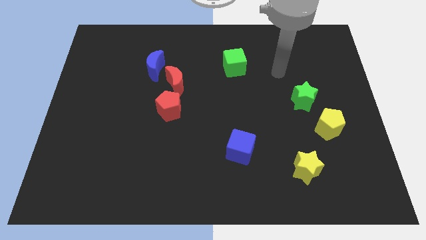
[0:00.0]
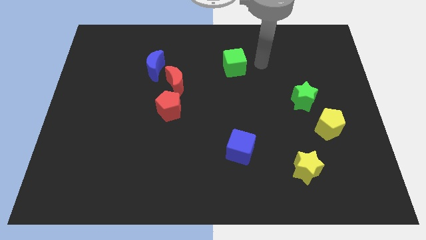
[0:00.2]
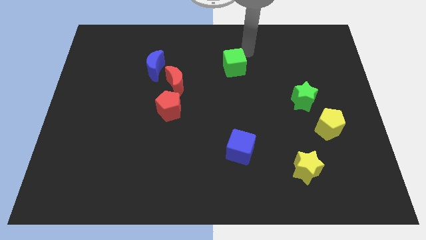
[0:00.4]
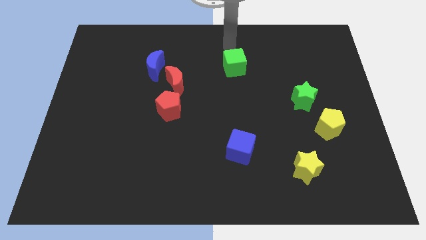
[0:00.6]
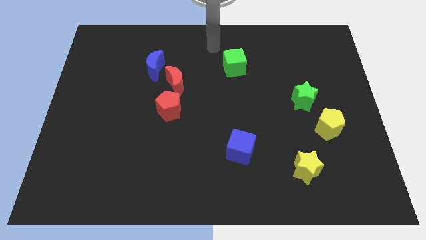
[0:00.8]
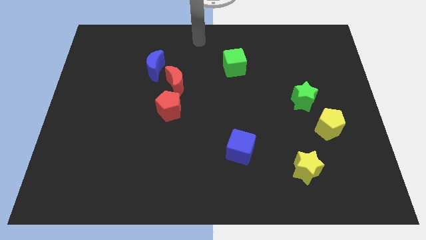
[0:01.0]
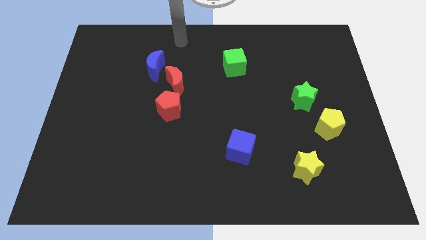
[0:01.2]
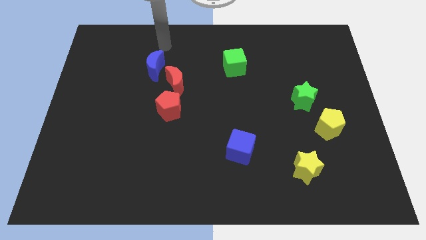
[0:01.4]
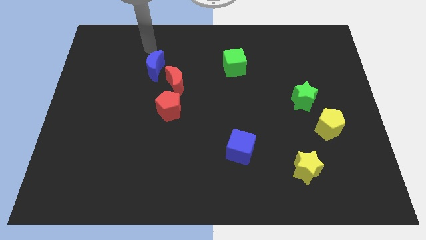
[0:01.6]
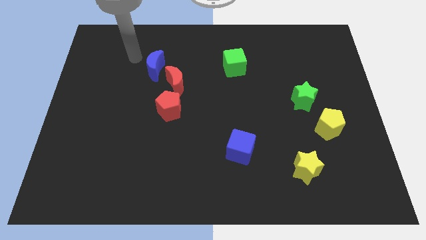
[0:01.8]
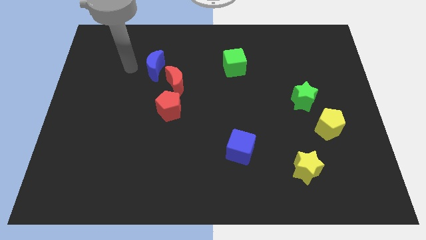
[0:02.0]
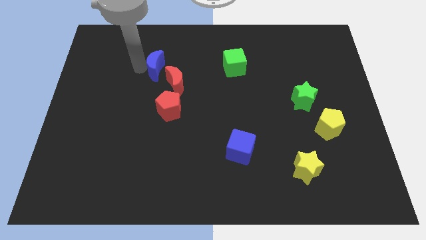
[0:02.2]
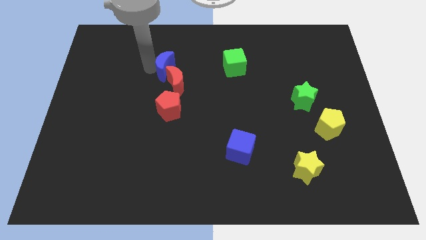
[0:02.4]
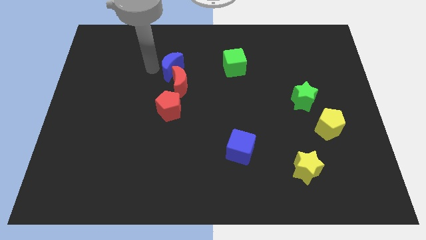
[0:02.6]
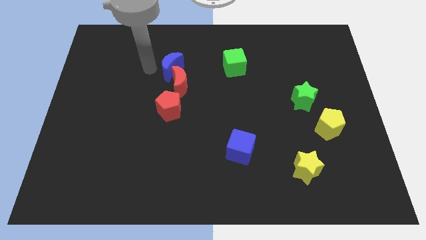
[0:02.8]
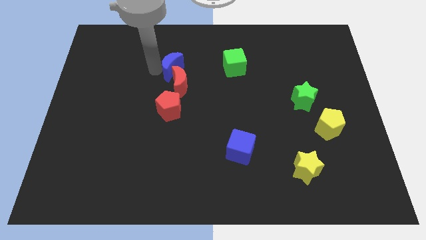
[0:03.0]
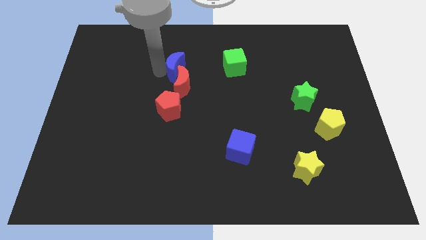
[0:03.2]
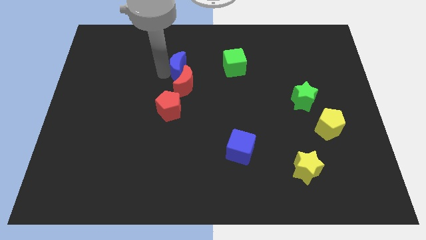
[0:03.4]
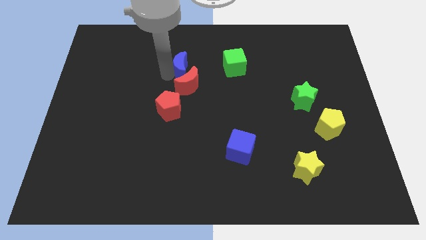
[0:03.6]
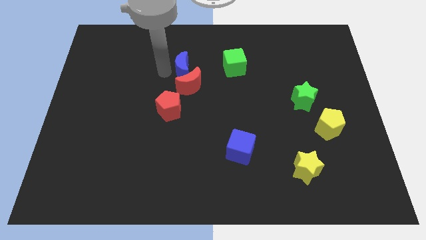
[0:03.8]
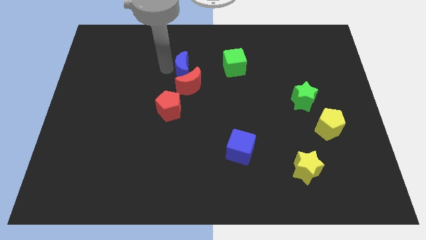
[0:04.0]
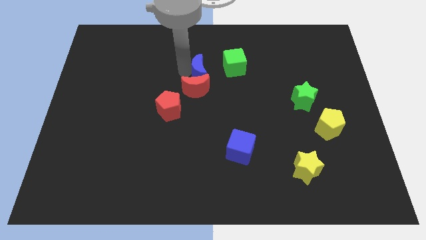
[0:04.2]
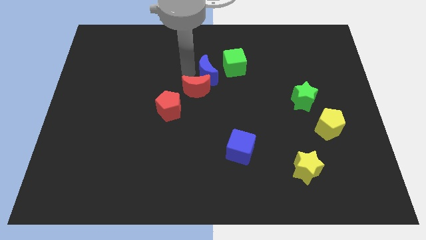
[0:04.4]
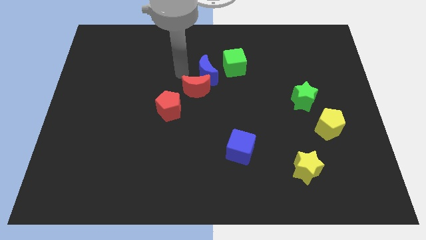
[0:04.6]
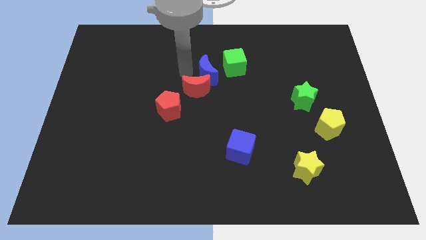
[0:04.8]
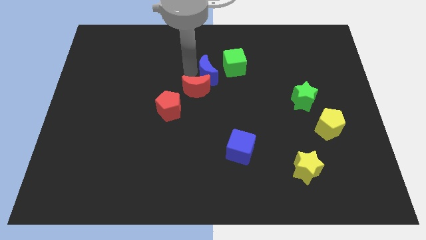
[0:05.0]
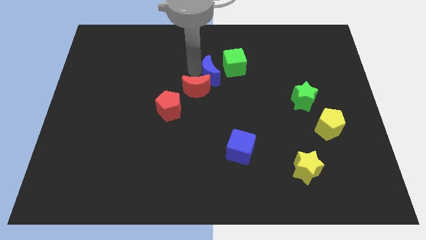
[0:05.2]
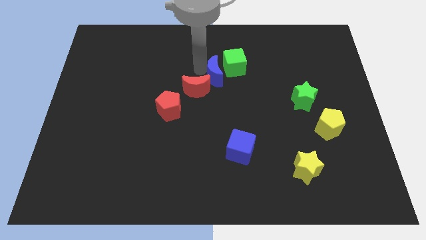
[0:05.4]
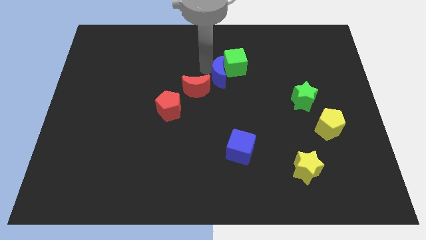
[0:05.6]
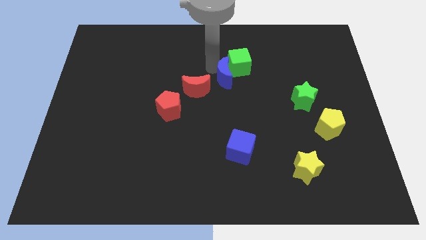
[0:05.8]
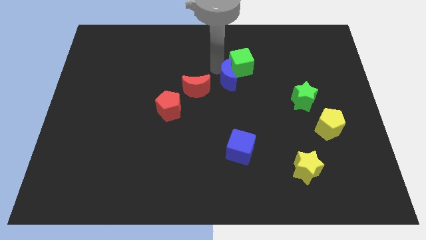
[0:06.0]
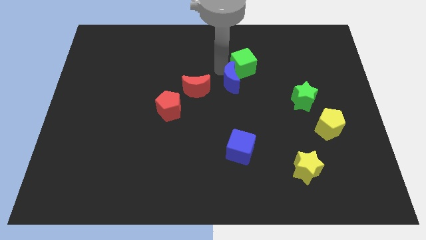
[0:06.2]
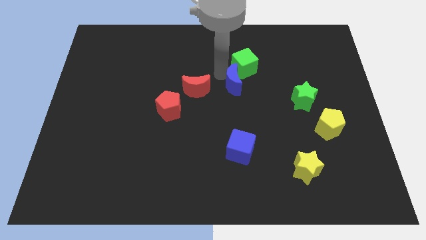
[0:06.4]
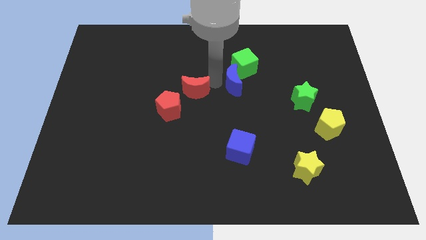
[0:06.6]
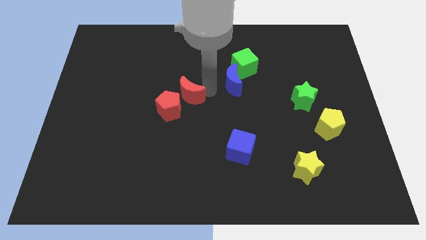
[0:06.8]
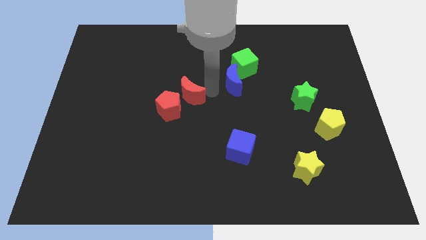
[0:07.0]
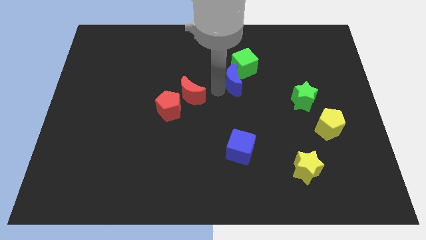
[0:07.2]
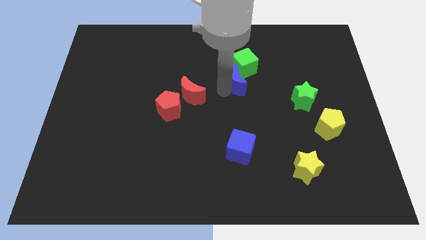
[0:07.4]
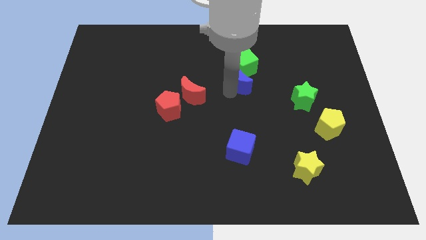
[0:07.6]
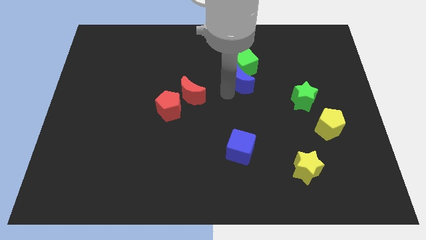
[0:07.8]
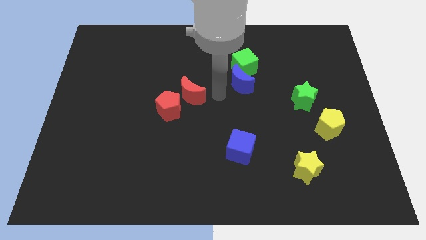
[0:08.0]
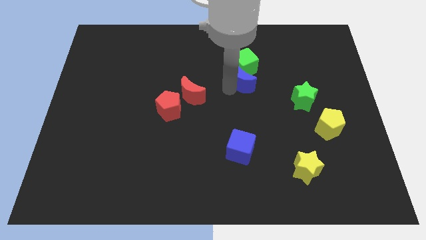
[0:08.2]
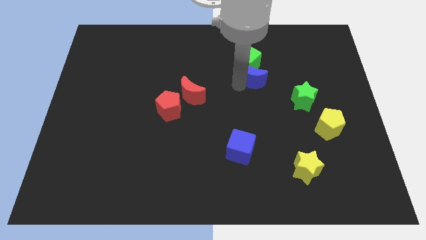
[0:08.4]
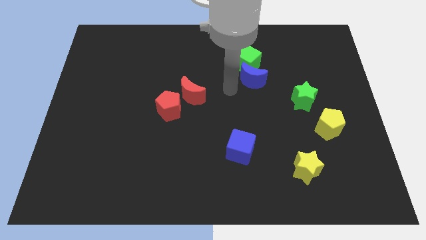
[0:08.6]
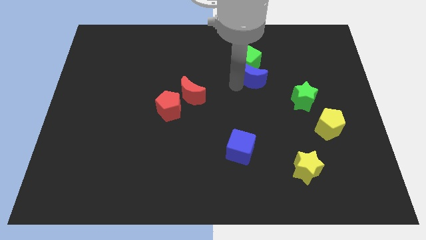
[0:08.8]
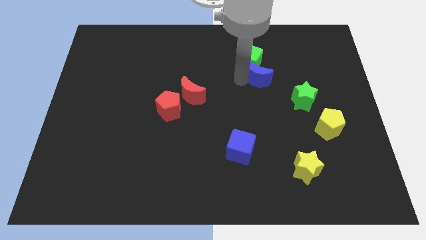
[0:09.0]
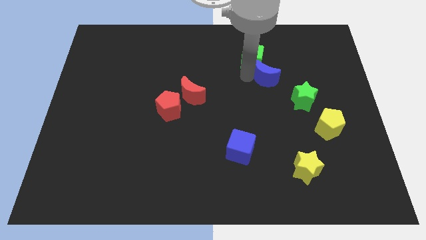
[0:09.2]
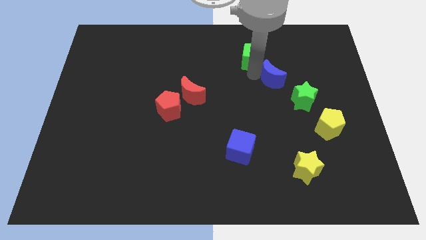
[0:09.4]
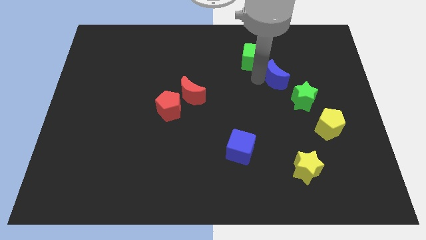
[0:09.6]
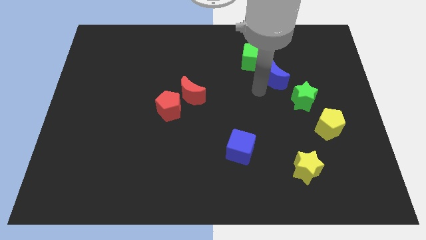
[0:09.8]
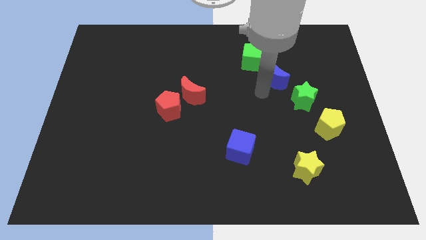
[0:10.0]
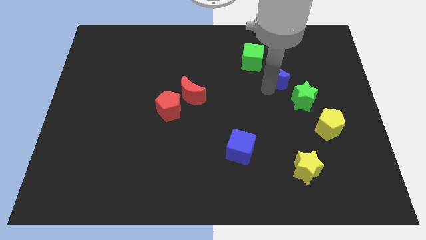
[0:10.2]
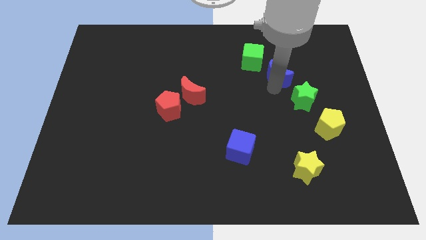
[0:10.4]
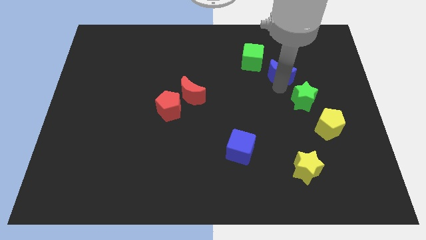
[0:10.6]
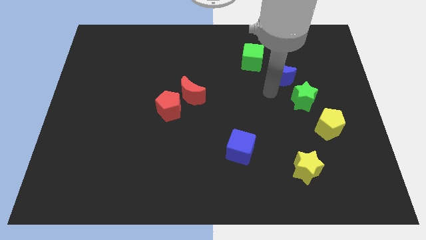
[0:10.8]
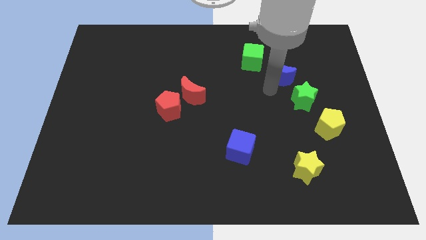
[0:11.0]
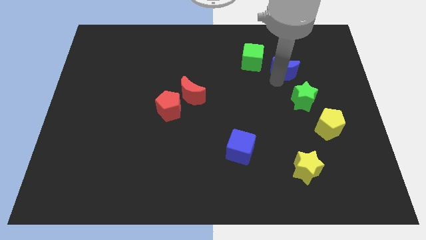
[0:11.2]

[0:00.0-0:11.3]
put the blue moon right of the green cube

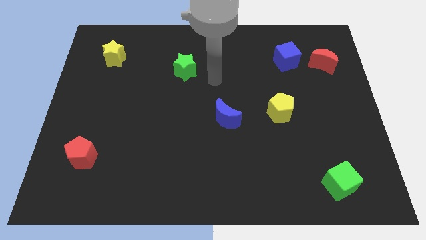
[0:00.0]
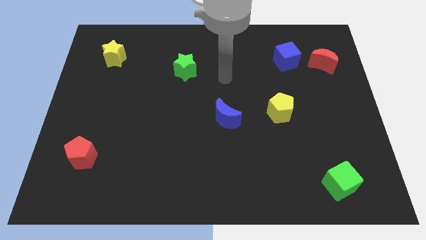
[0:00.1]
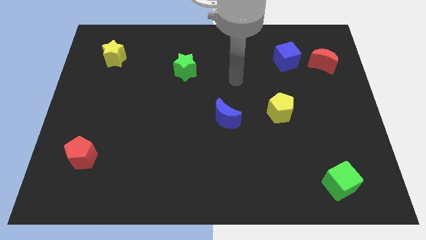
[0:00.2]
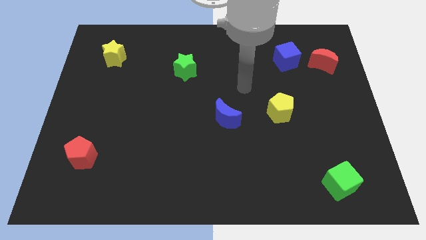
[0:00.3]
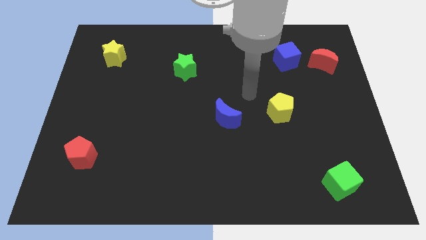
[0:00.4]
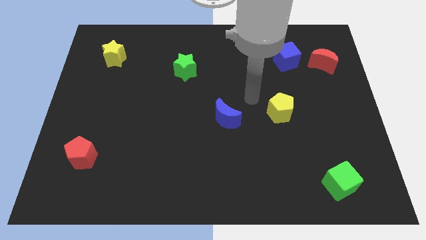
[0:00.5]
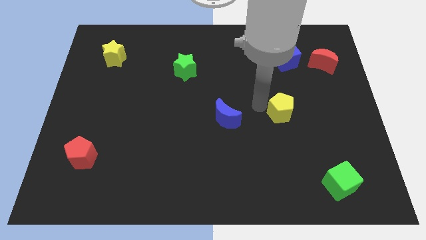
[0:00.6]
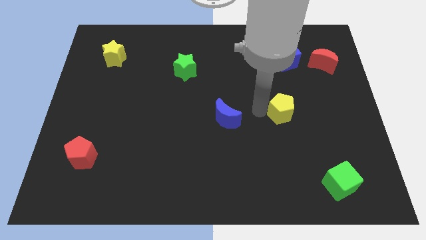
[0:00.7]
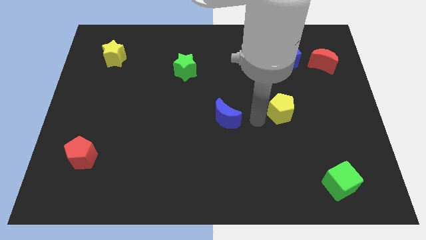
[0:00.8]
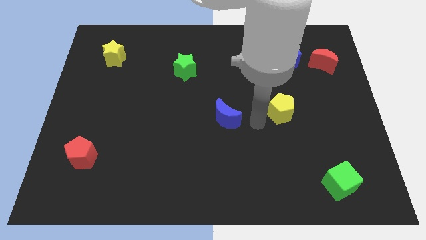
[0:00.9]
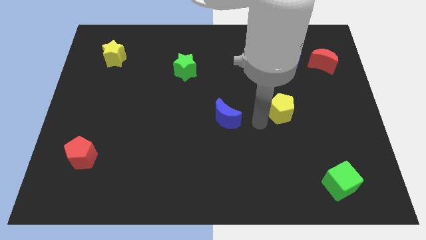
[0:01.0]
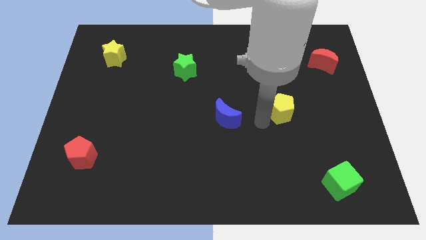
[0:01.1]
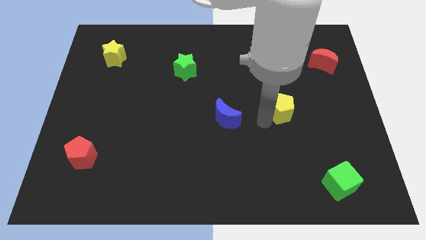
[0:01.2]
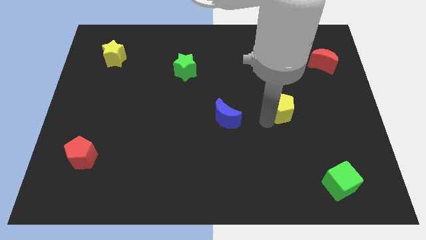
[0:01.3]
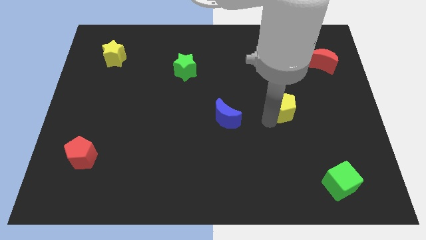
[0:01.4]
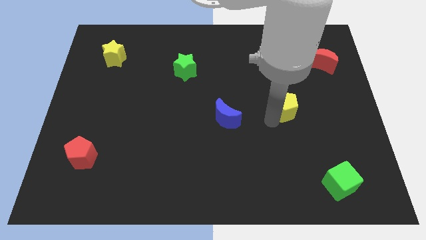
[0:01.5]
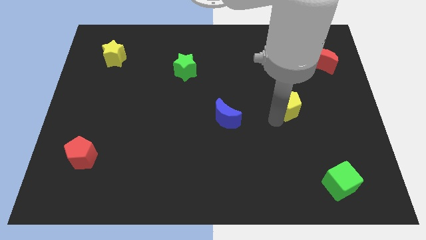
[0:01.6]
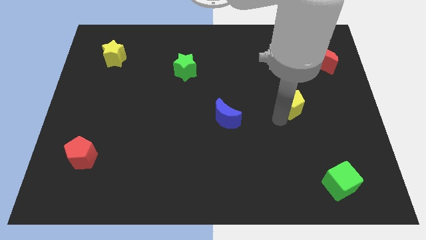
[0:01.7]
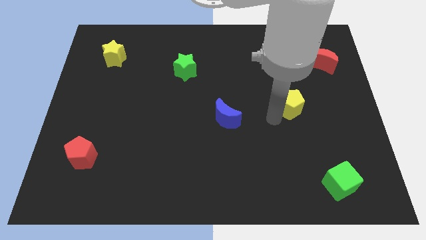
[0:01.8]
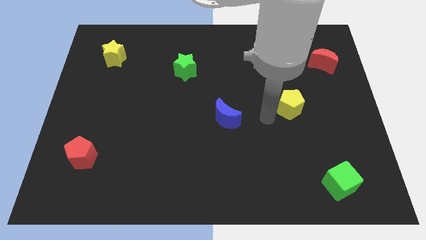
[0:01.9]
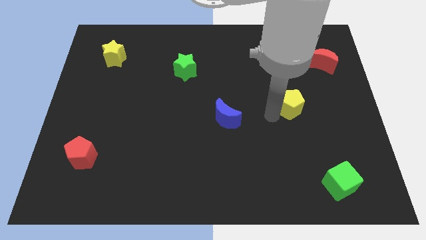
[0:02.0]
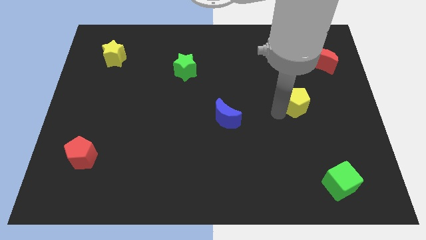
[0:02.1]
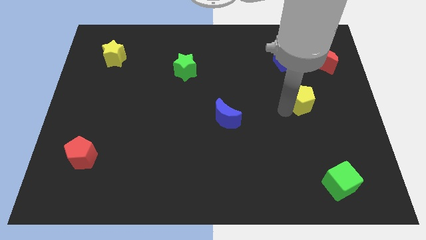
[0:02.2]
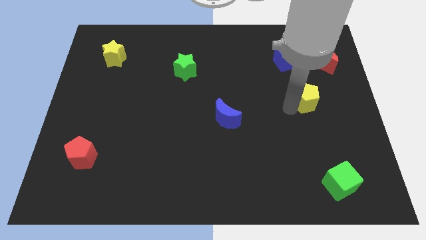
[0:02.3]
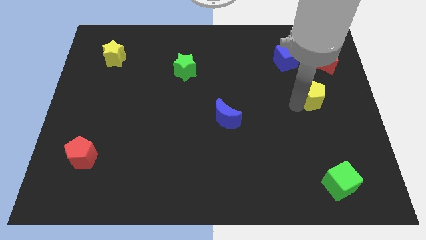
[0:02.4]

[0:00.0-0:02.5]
slide the yellow pentagon to the bottom of the red moon
